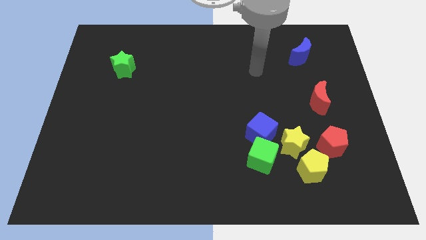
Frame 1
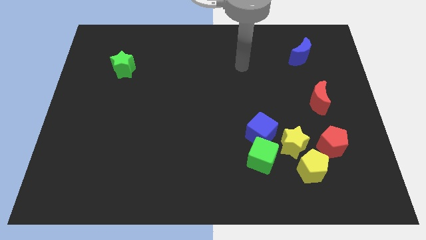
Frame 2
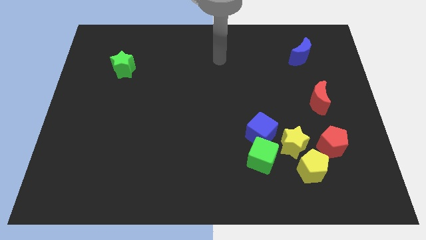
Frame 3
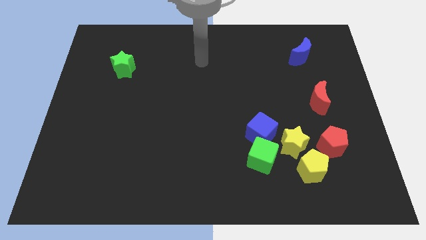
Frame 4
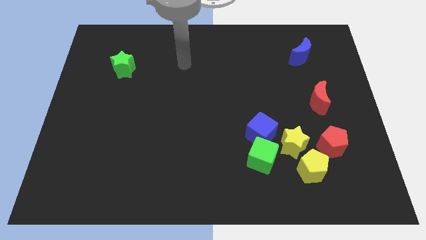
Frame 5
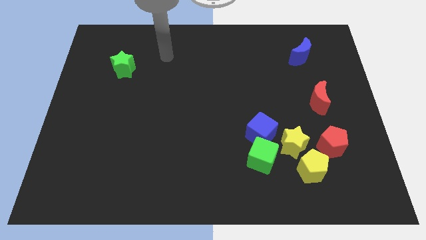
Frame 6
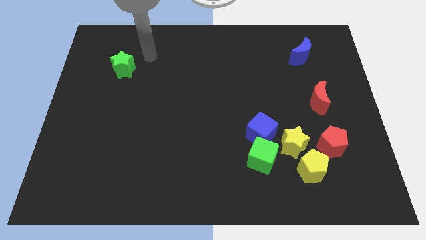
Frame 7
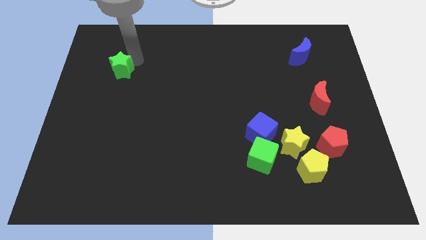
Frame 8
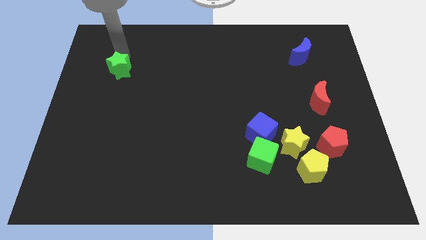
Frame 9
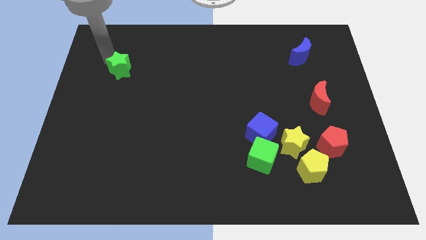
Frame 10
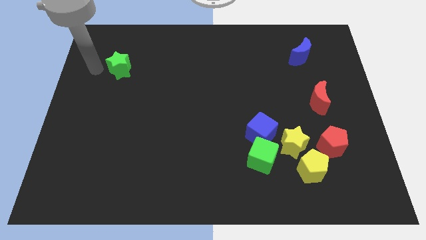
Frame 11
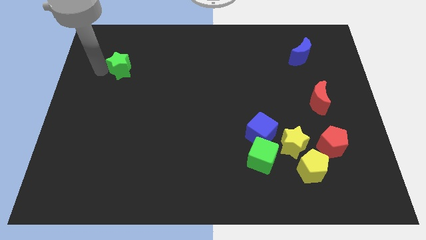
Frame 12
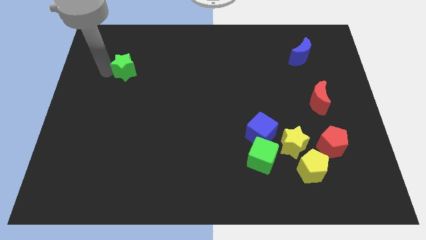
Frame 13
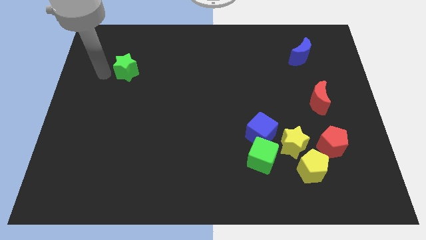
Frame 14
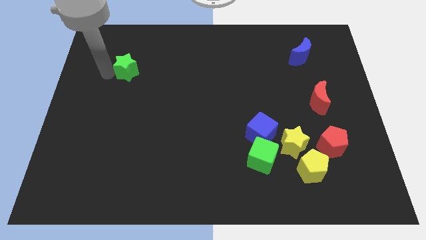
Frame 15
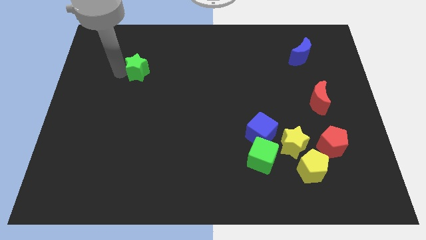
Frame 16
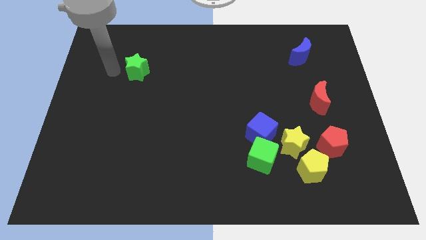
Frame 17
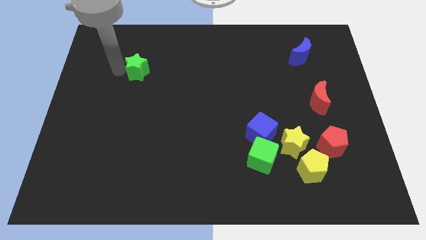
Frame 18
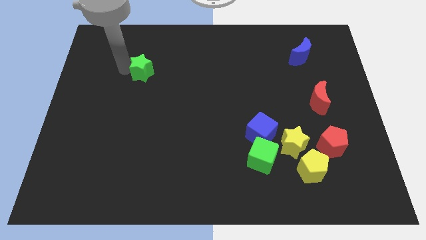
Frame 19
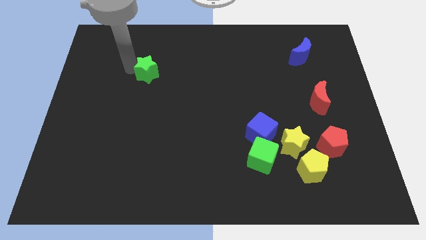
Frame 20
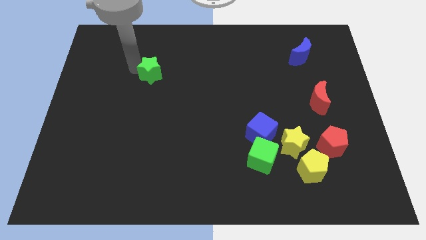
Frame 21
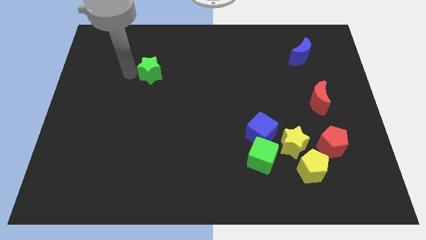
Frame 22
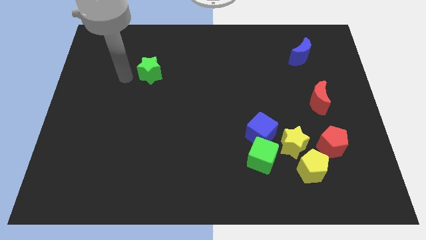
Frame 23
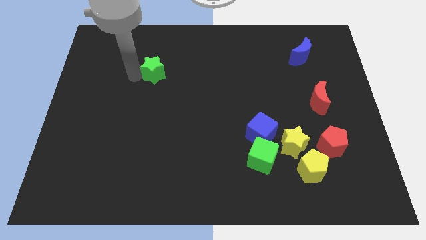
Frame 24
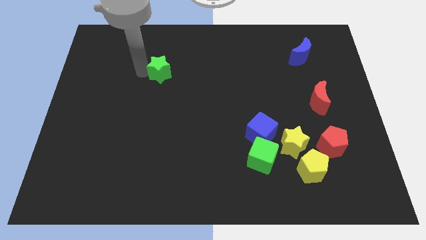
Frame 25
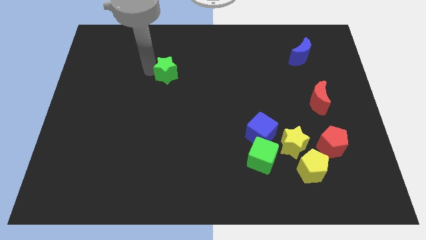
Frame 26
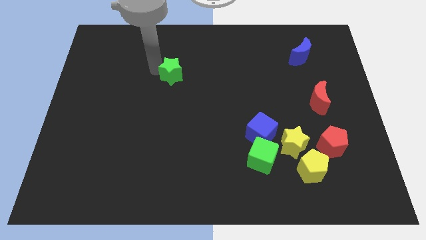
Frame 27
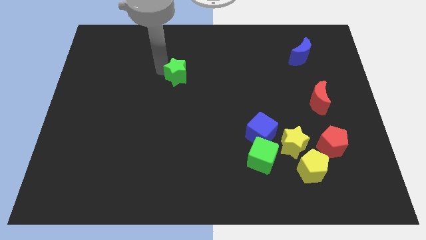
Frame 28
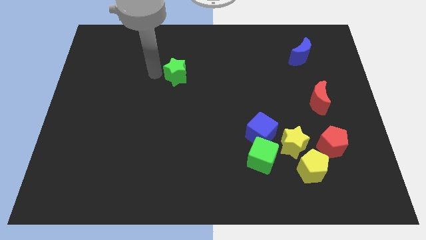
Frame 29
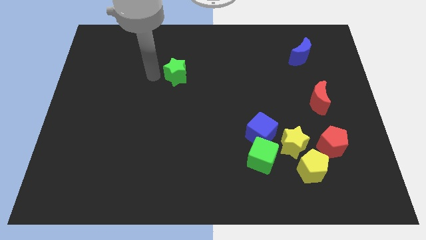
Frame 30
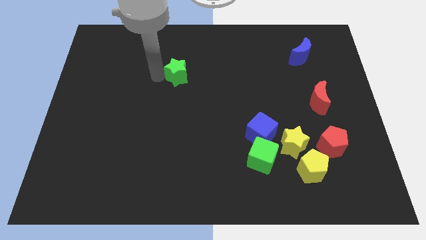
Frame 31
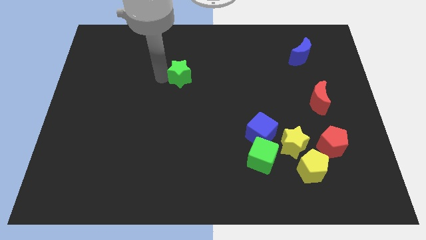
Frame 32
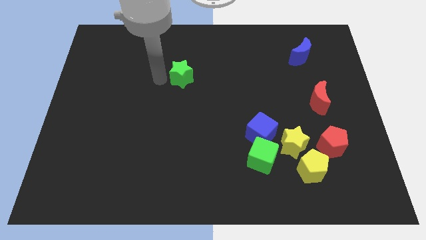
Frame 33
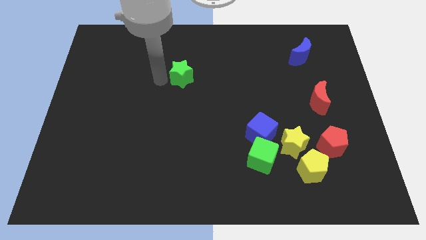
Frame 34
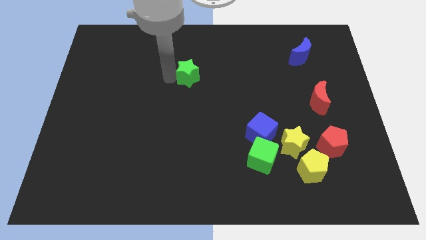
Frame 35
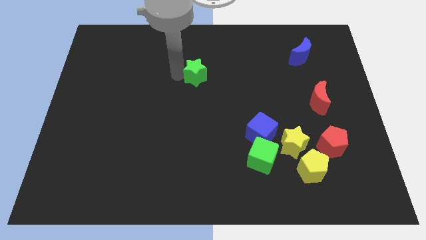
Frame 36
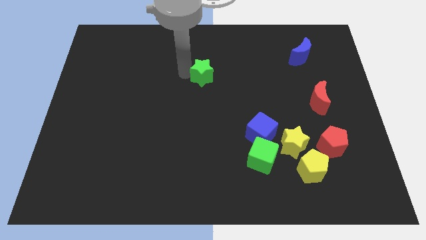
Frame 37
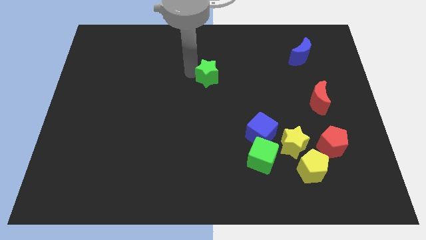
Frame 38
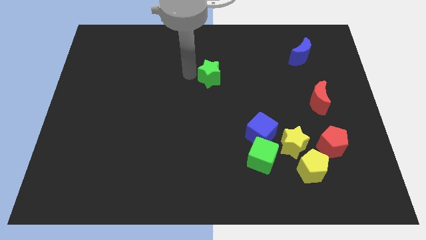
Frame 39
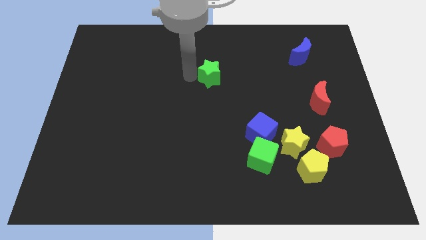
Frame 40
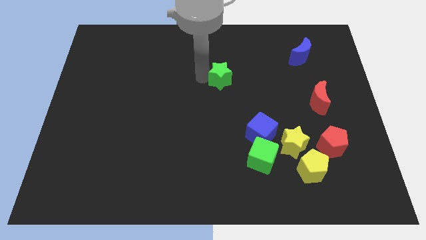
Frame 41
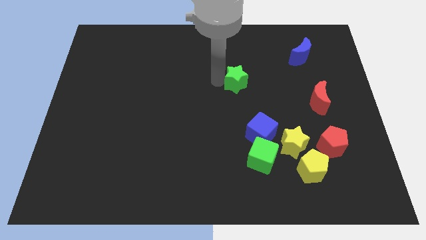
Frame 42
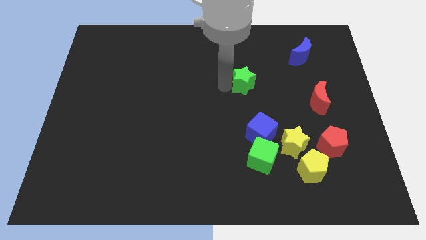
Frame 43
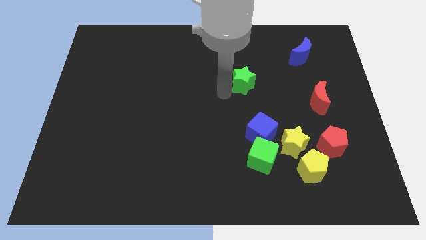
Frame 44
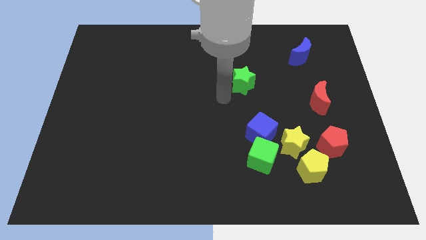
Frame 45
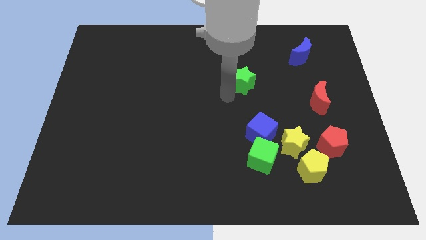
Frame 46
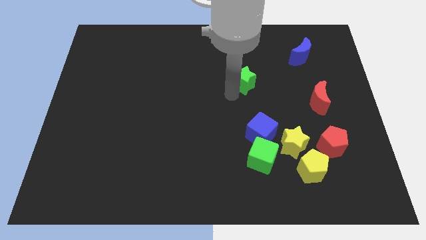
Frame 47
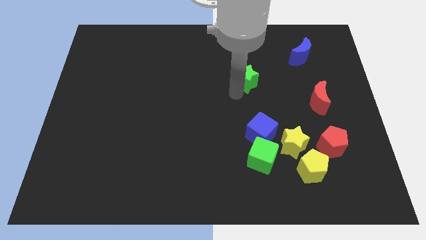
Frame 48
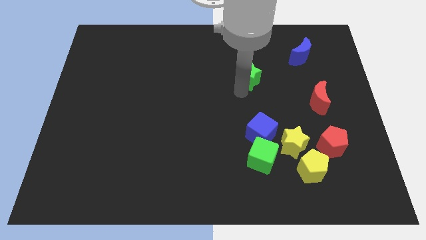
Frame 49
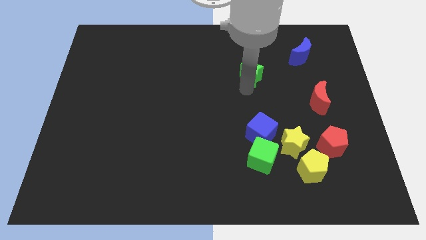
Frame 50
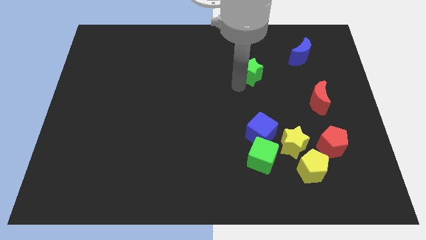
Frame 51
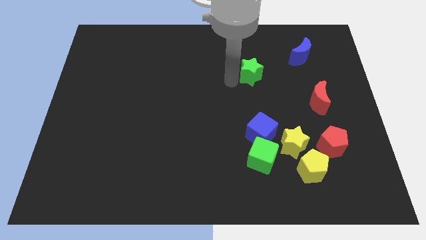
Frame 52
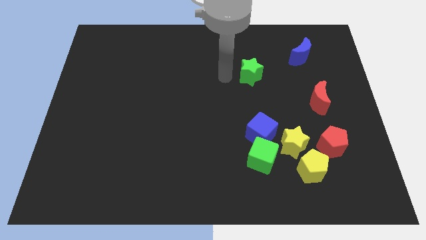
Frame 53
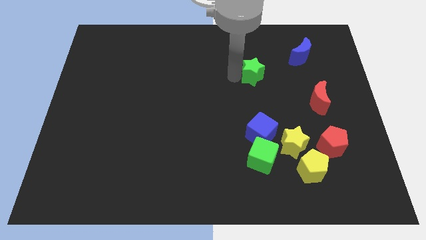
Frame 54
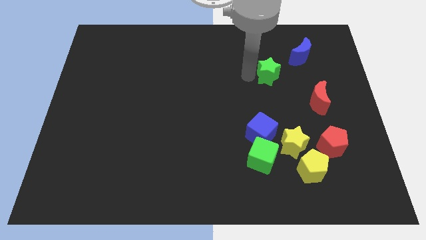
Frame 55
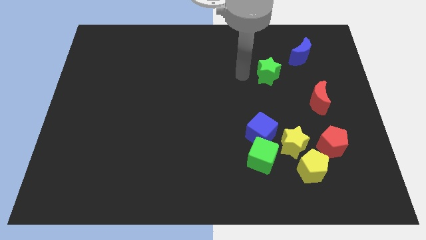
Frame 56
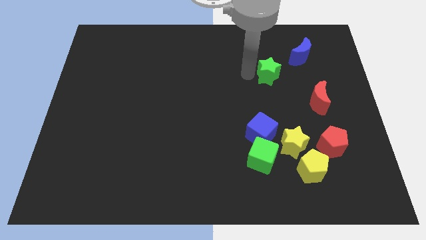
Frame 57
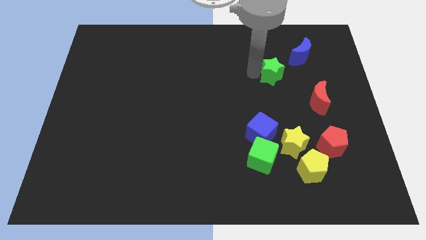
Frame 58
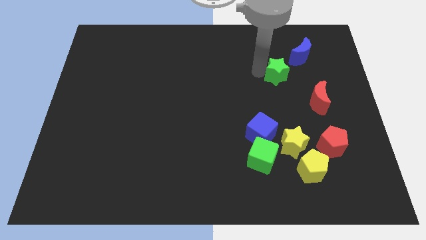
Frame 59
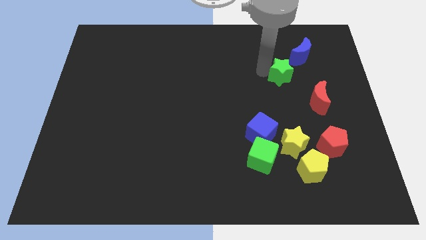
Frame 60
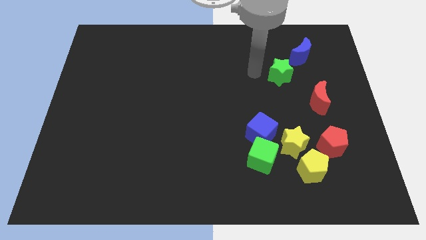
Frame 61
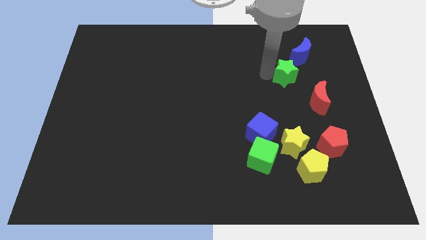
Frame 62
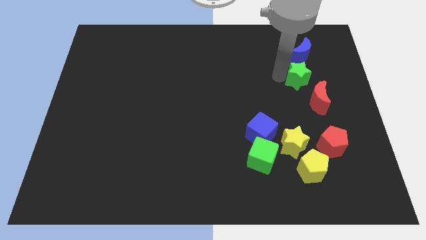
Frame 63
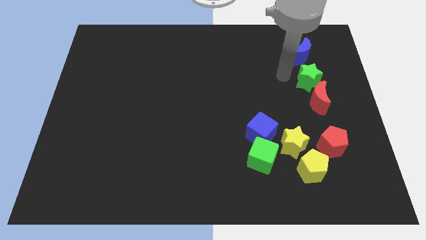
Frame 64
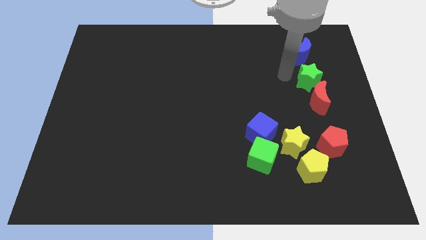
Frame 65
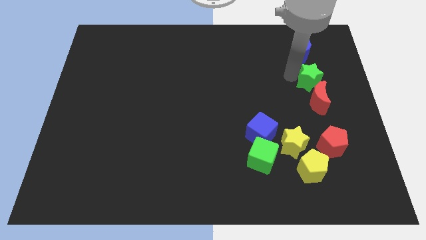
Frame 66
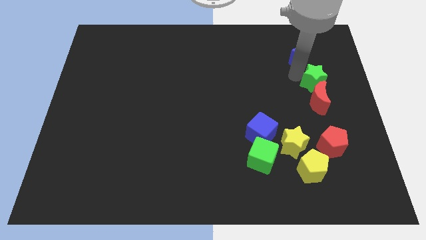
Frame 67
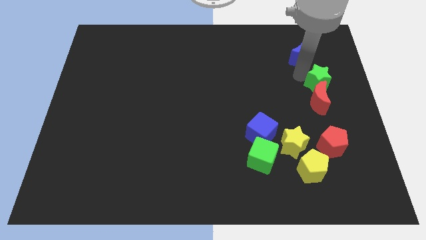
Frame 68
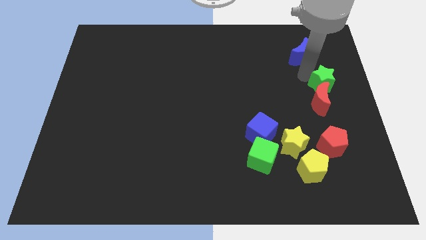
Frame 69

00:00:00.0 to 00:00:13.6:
move the green star to the center right
